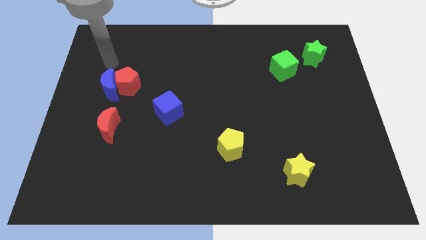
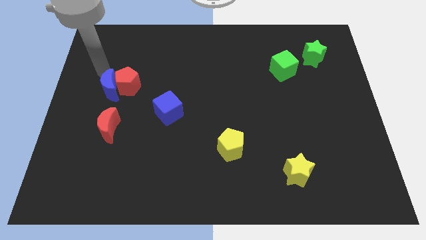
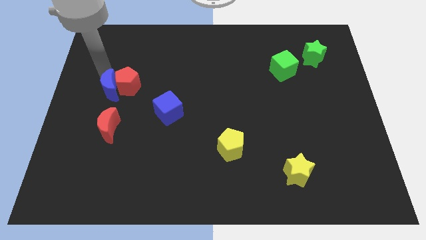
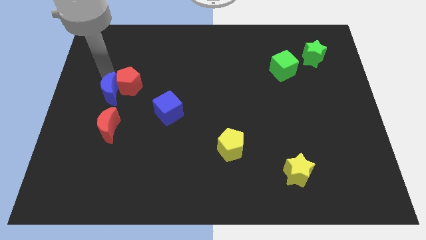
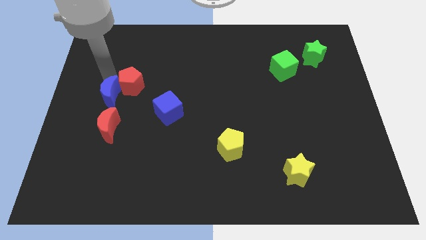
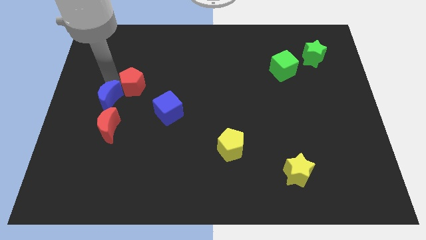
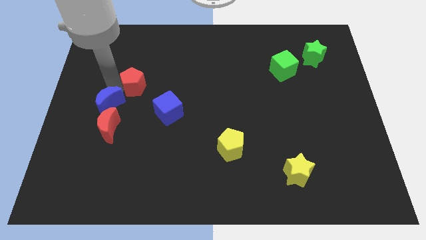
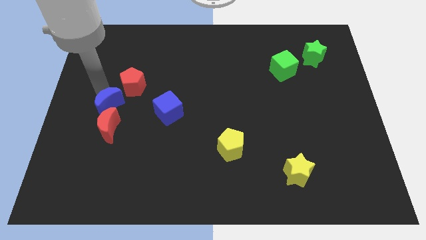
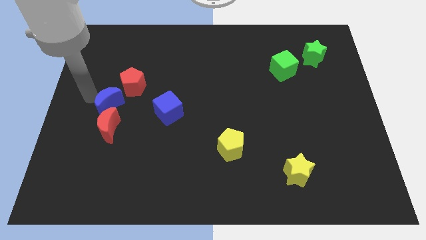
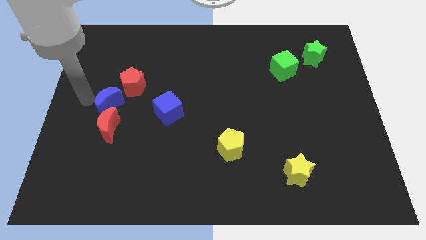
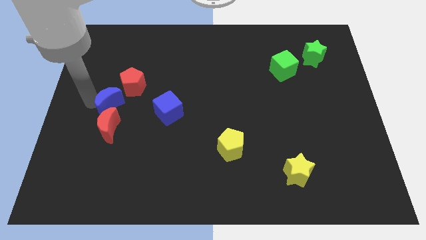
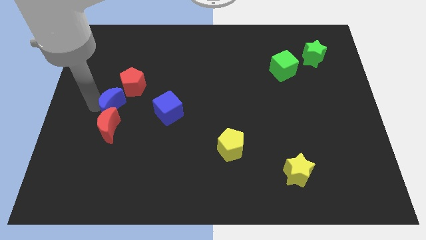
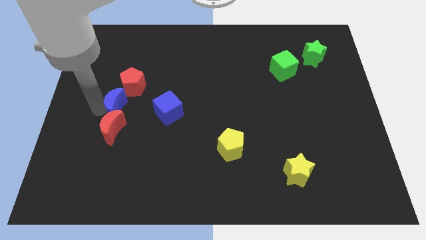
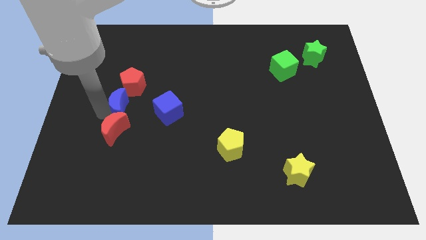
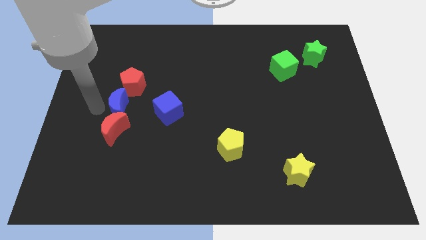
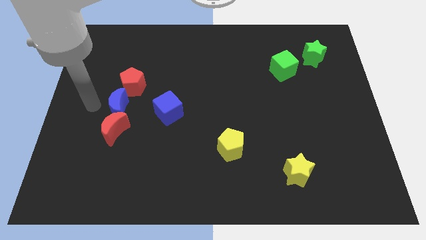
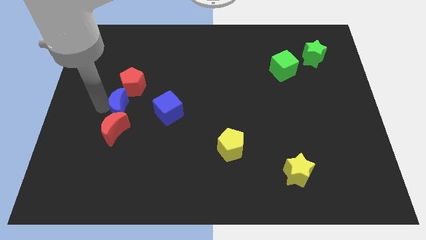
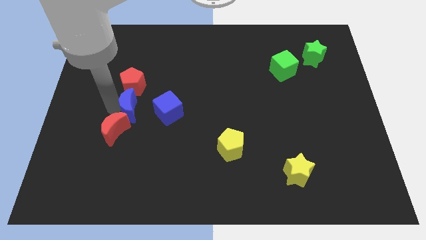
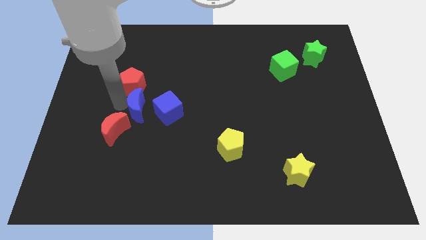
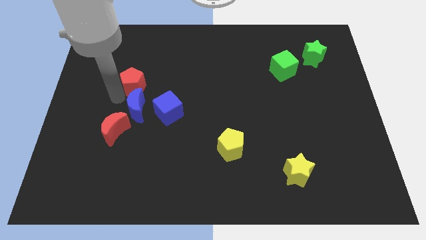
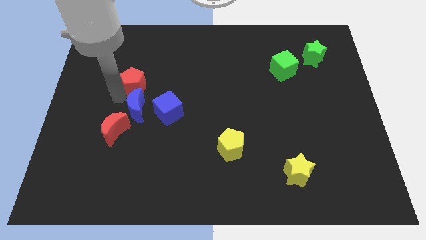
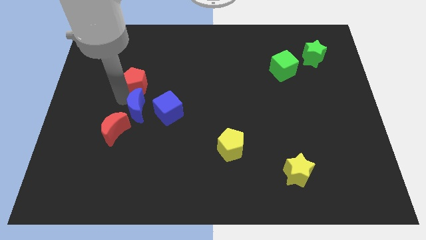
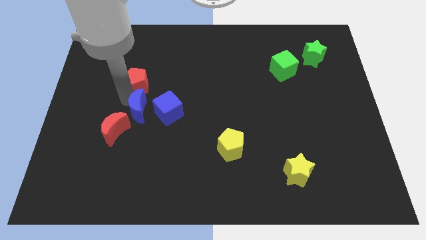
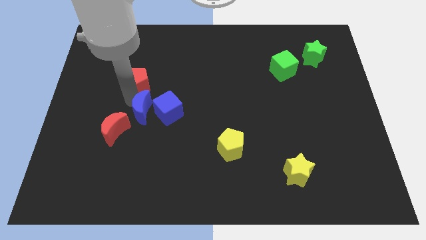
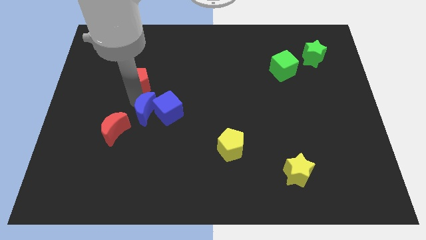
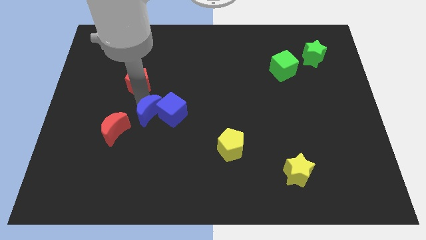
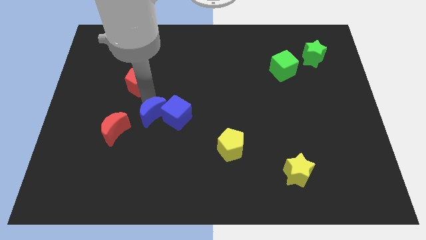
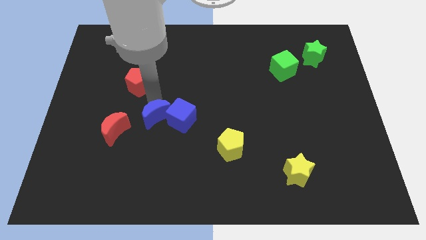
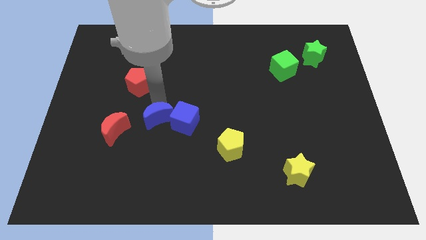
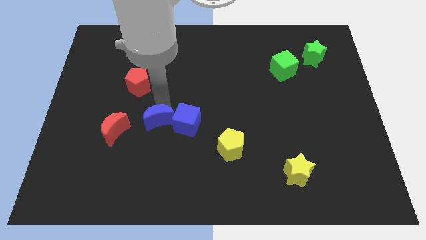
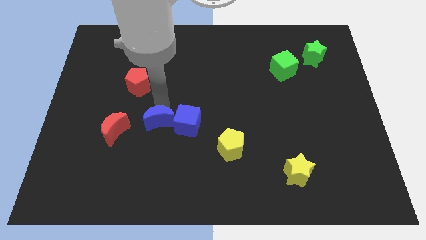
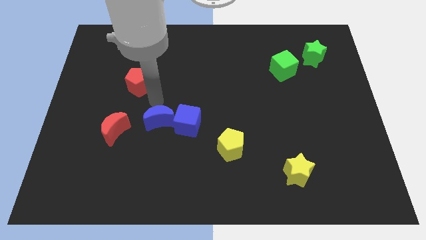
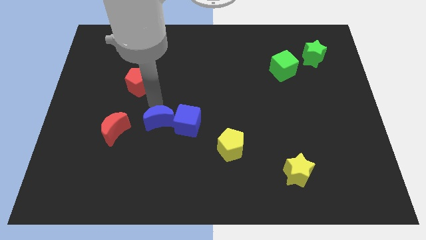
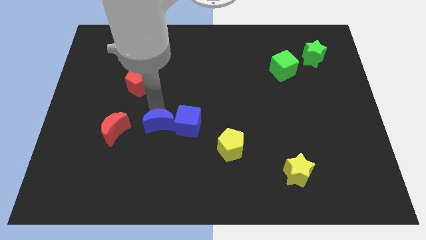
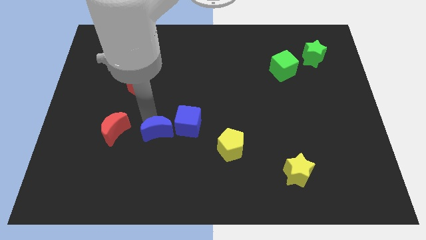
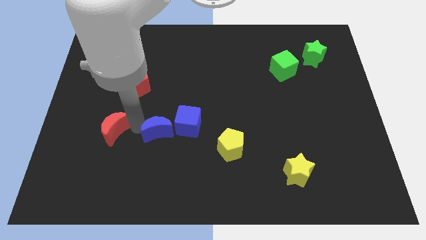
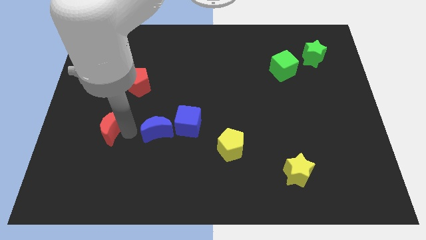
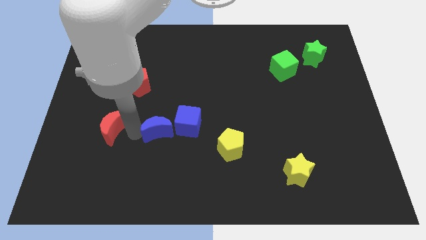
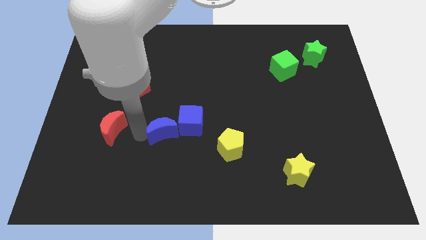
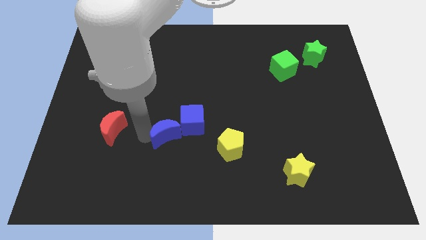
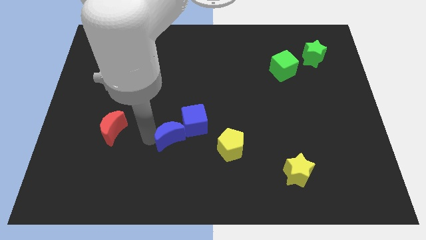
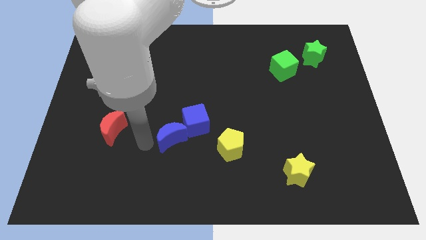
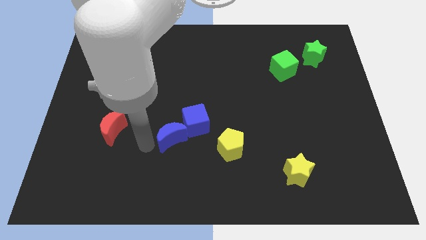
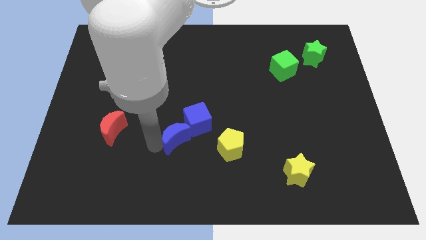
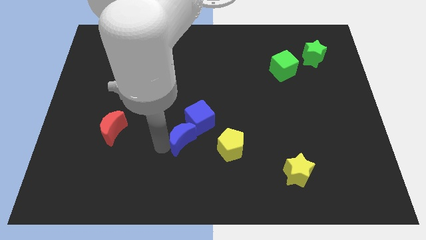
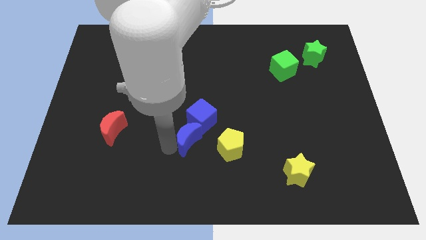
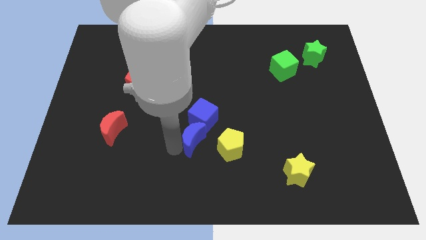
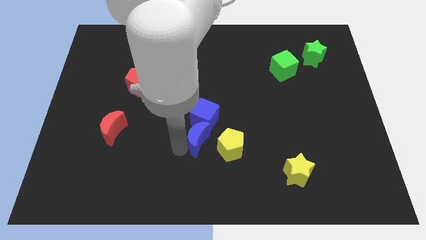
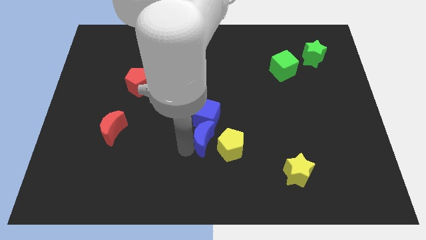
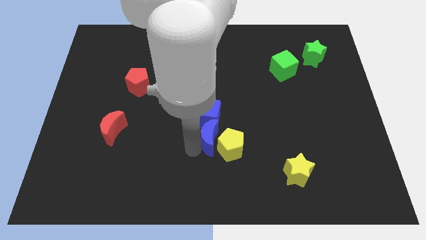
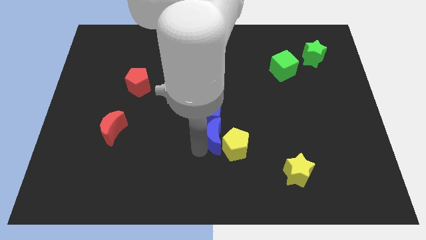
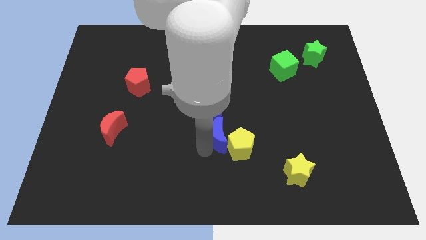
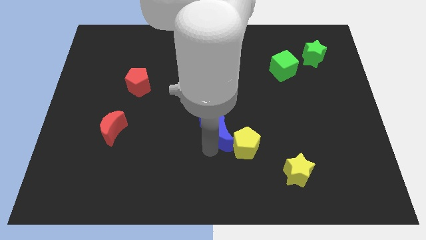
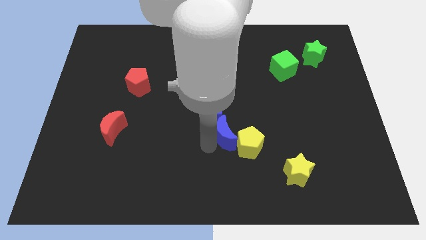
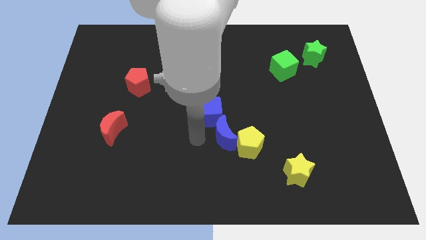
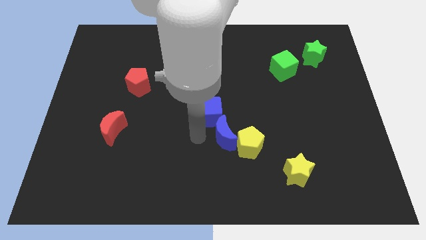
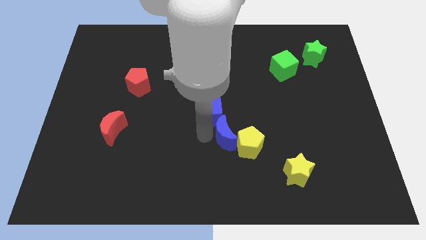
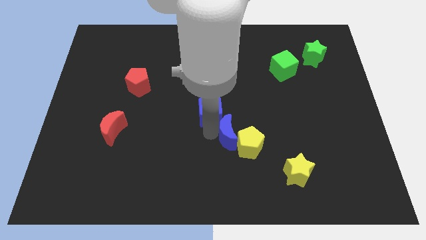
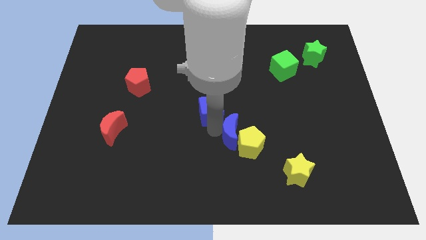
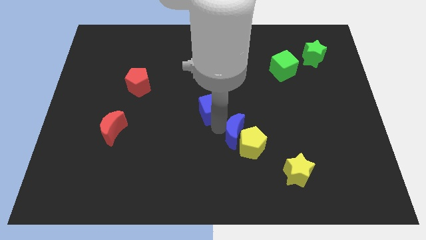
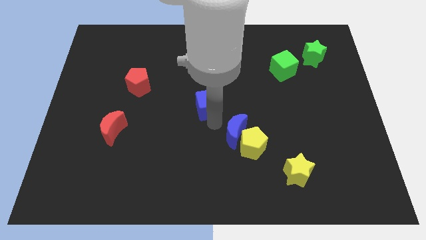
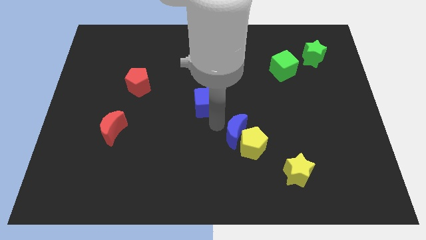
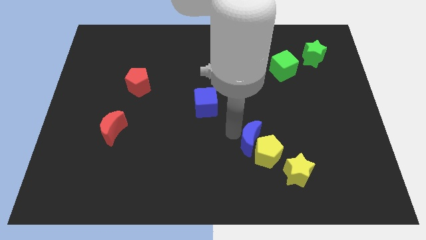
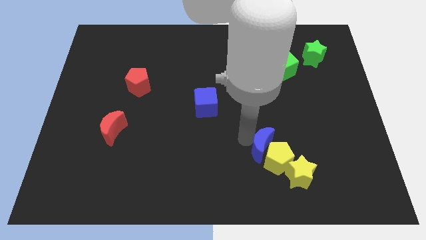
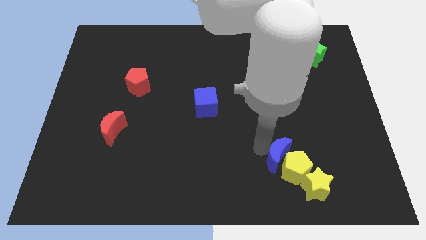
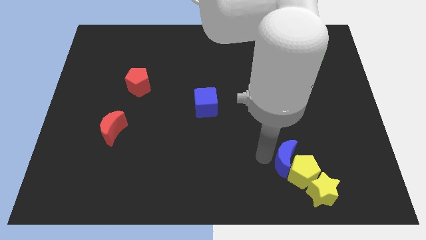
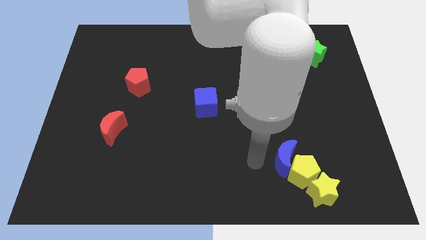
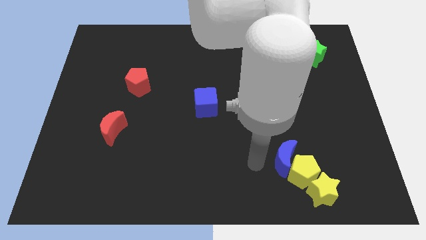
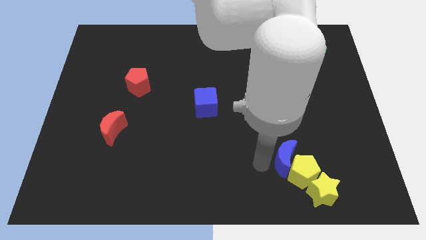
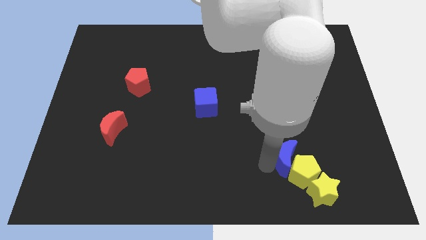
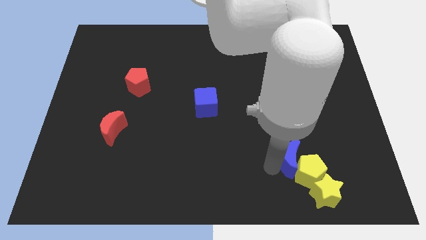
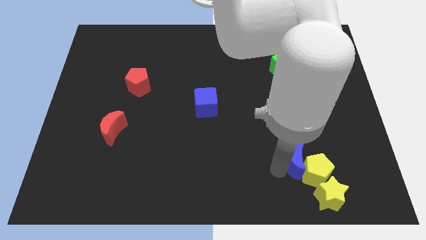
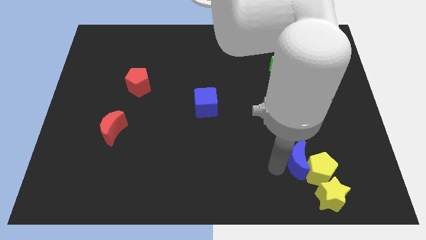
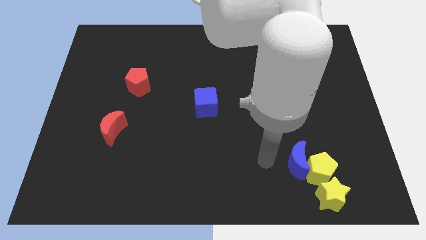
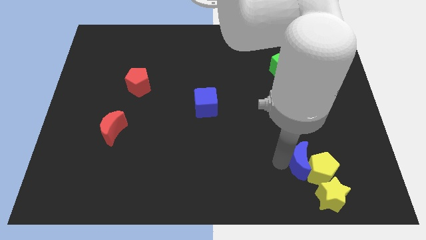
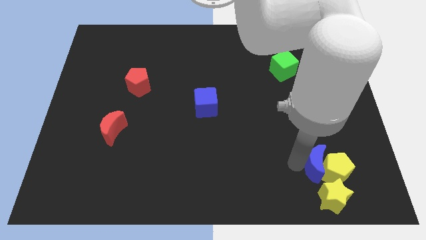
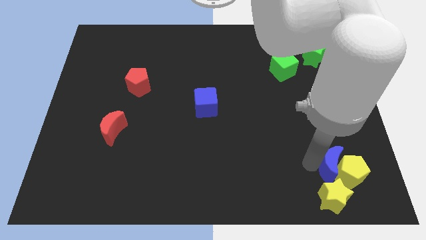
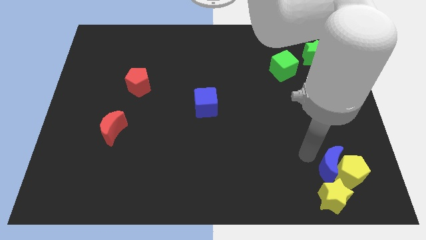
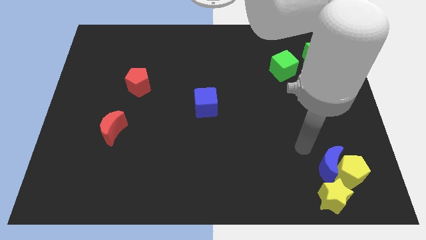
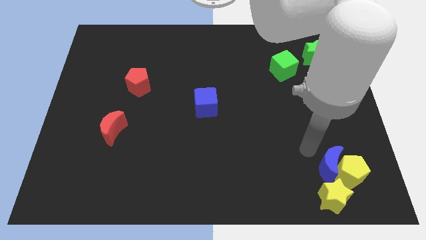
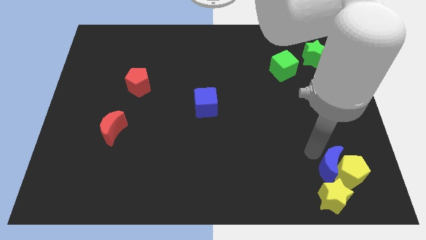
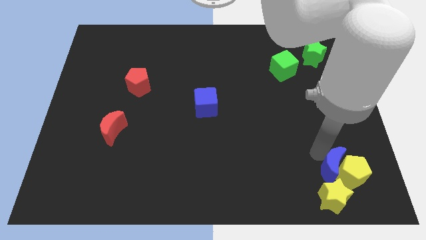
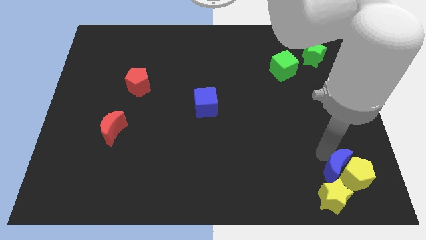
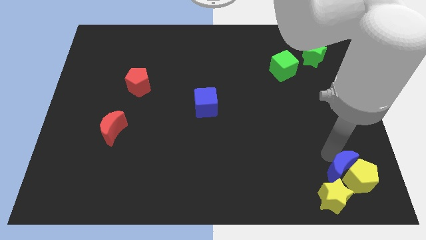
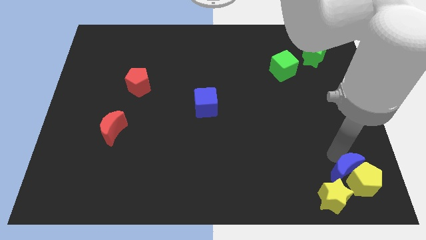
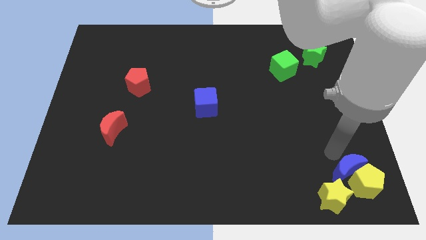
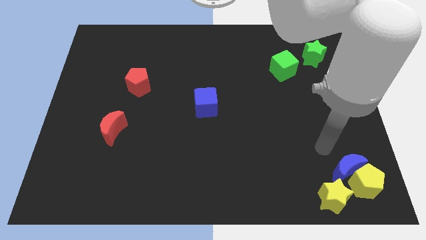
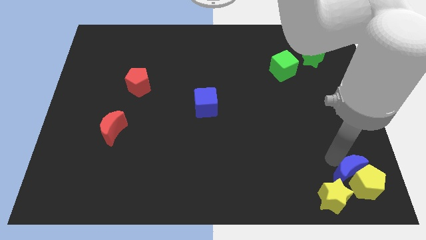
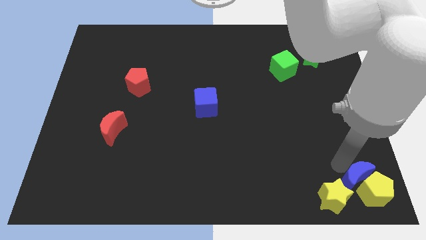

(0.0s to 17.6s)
move the blue moon to the bottom right corner
